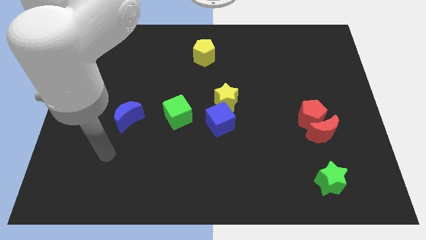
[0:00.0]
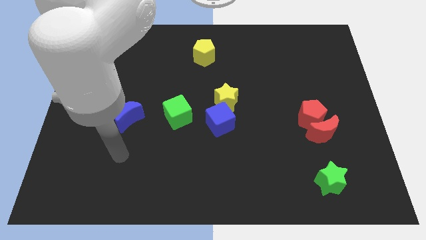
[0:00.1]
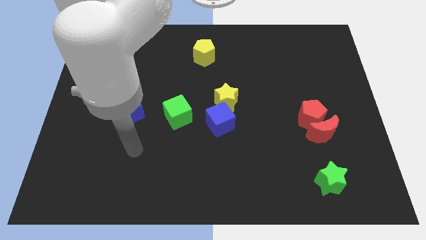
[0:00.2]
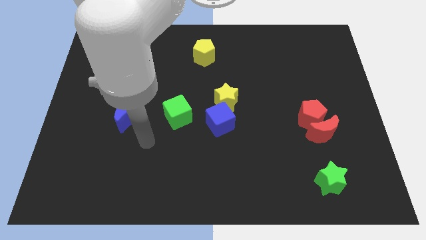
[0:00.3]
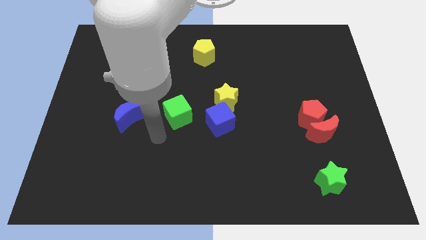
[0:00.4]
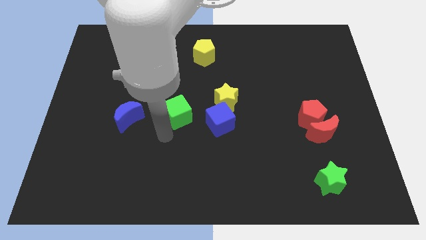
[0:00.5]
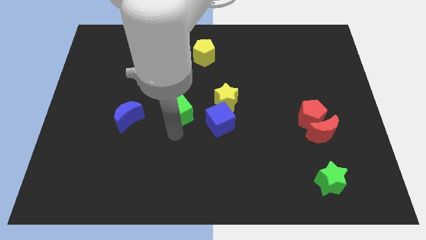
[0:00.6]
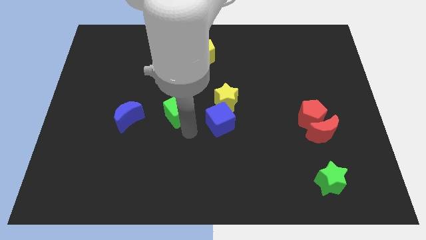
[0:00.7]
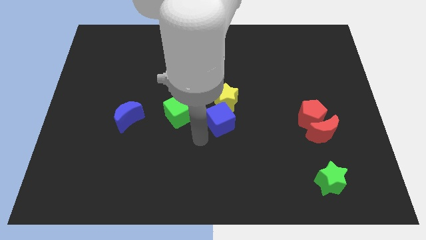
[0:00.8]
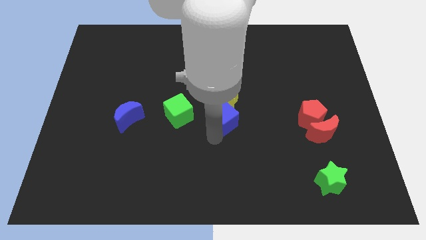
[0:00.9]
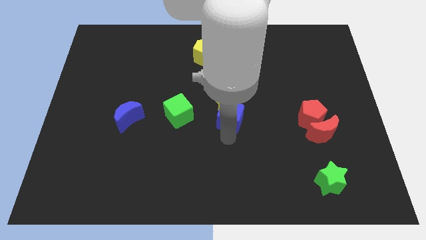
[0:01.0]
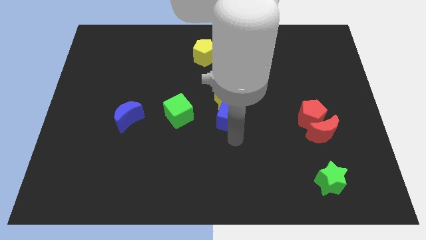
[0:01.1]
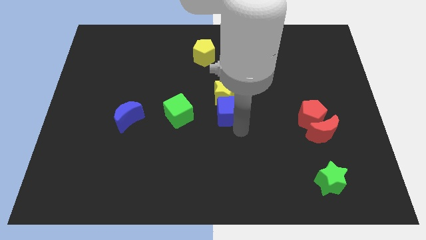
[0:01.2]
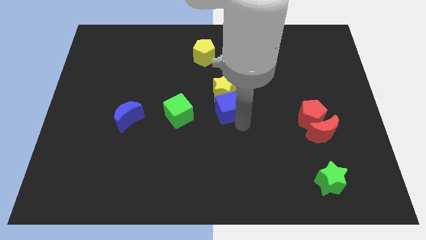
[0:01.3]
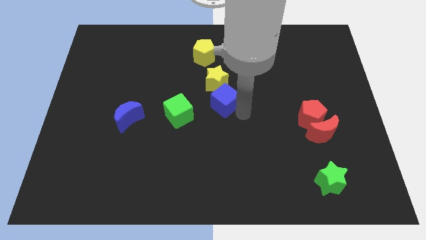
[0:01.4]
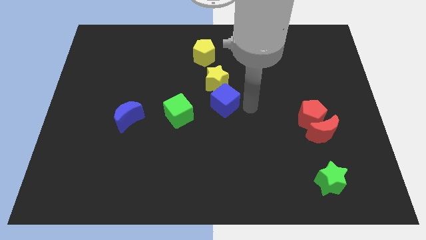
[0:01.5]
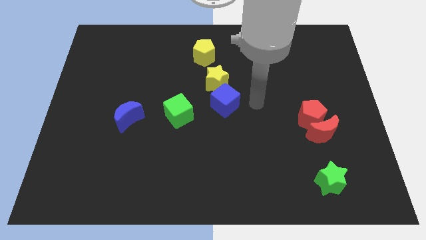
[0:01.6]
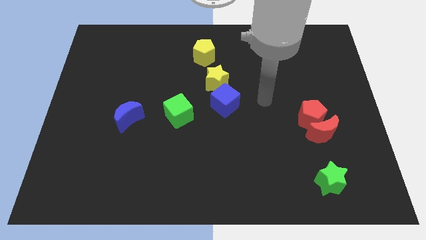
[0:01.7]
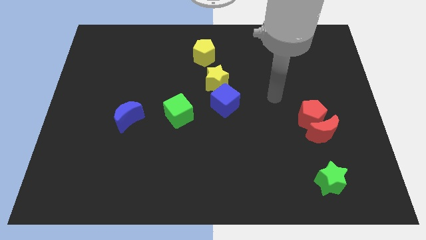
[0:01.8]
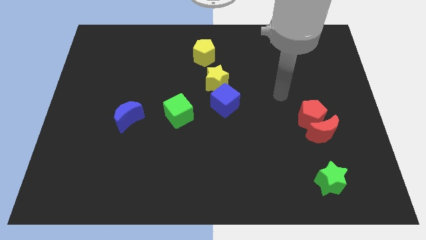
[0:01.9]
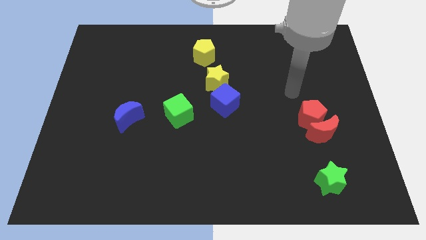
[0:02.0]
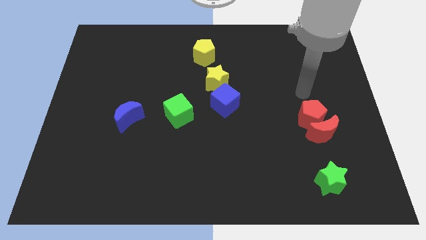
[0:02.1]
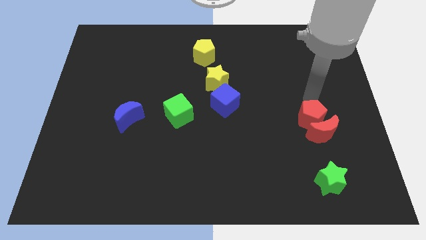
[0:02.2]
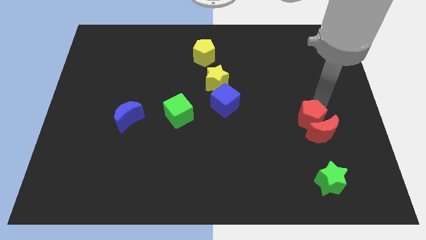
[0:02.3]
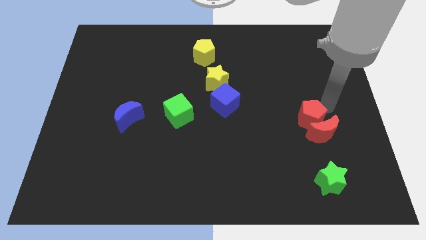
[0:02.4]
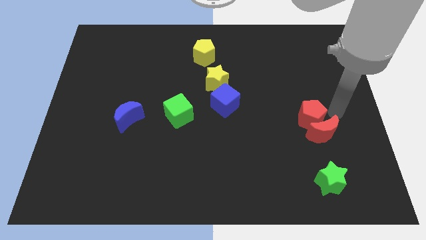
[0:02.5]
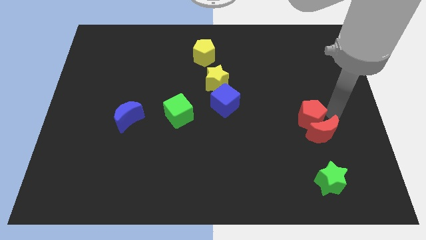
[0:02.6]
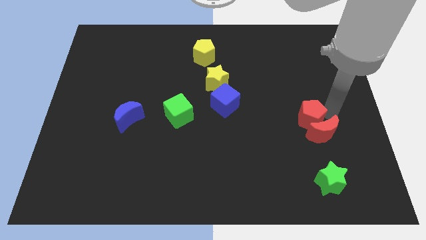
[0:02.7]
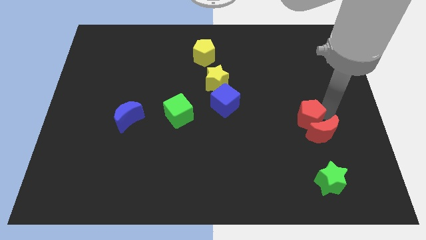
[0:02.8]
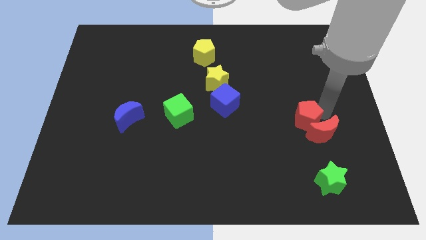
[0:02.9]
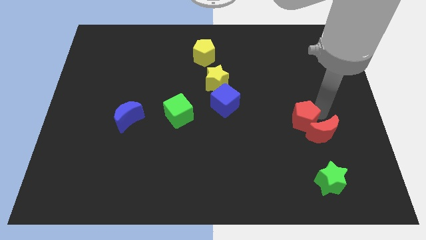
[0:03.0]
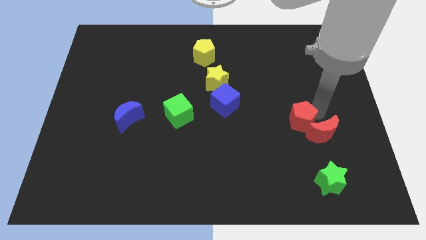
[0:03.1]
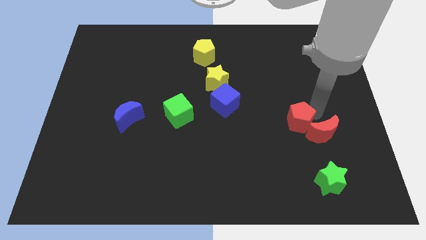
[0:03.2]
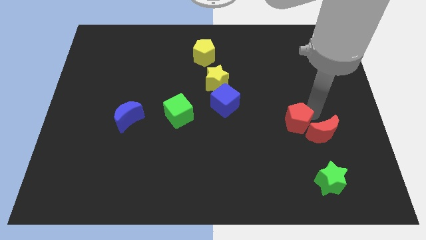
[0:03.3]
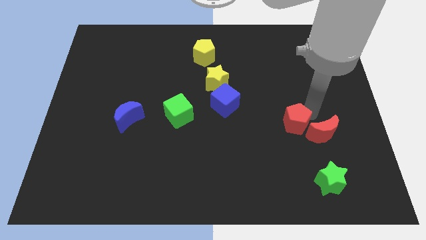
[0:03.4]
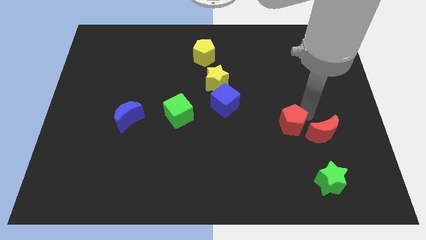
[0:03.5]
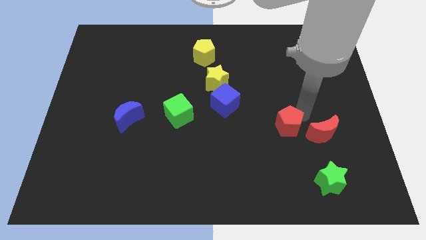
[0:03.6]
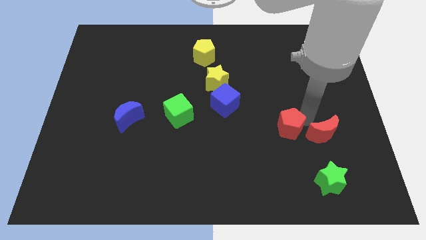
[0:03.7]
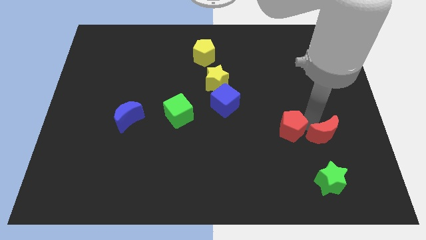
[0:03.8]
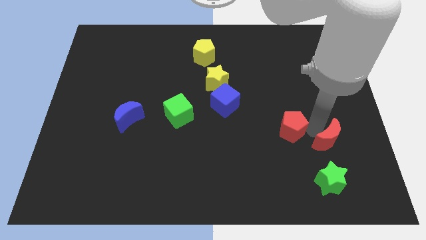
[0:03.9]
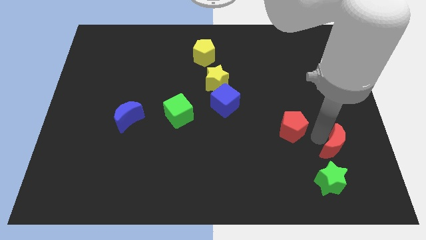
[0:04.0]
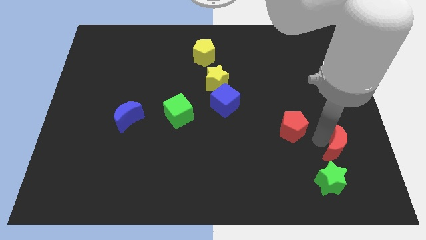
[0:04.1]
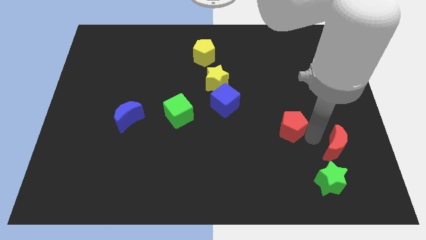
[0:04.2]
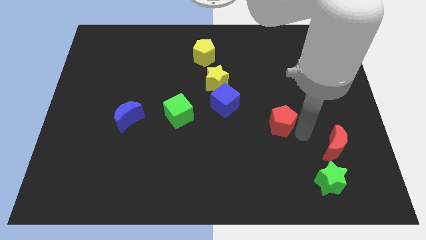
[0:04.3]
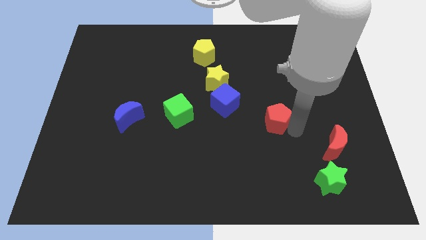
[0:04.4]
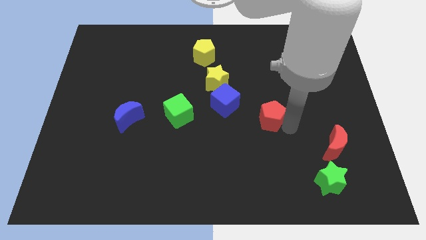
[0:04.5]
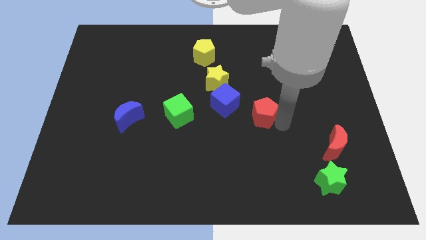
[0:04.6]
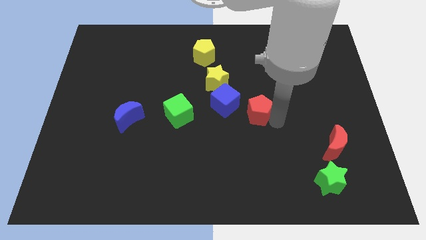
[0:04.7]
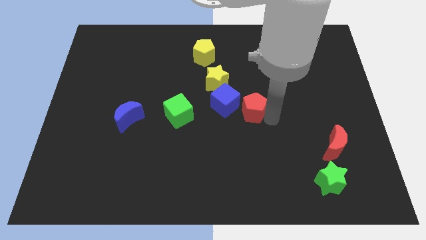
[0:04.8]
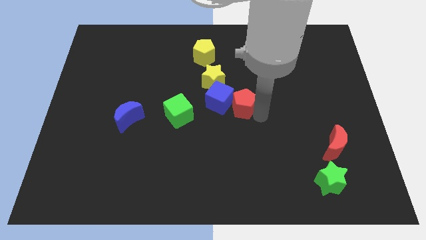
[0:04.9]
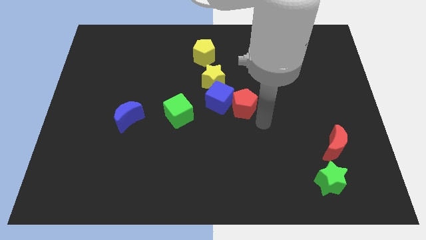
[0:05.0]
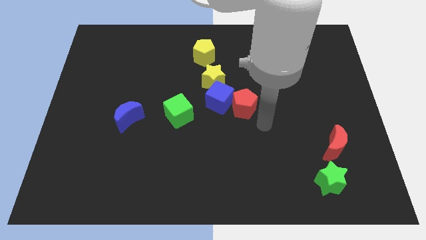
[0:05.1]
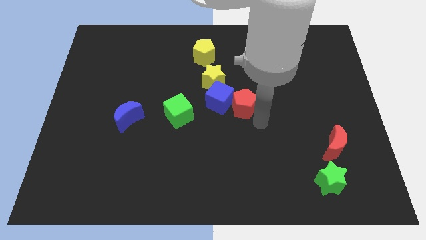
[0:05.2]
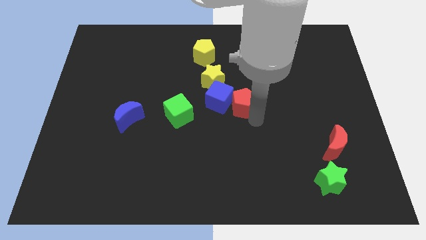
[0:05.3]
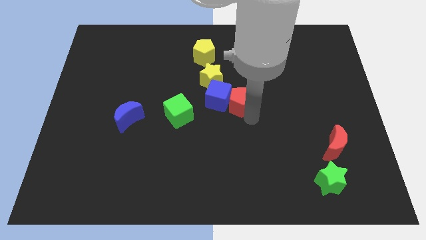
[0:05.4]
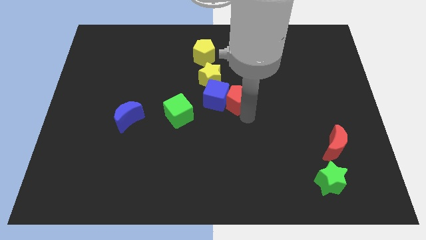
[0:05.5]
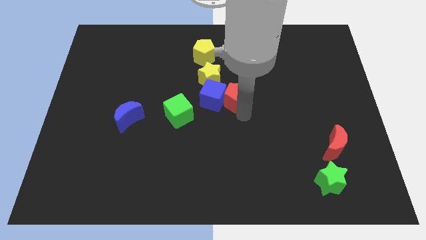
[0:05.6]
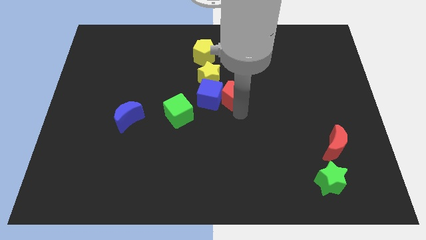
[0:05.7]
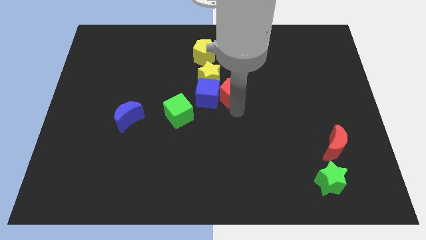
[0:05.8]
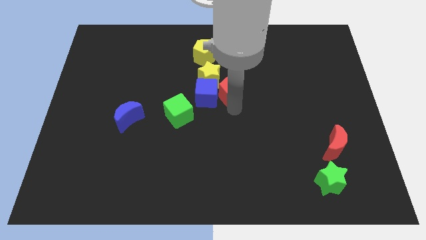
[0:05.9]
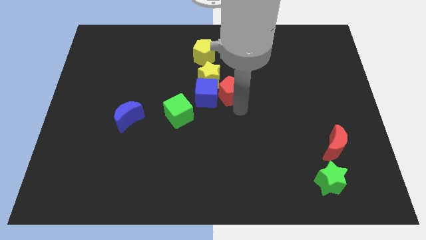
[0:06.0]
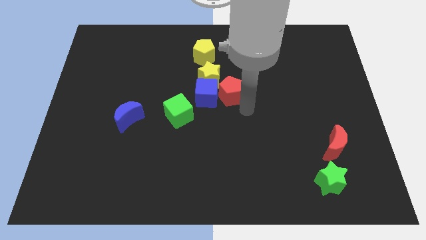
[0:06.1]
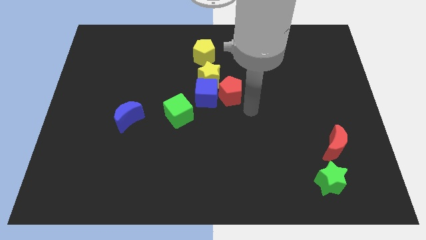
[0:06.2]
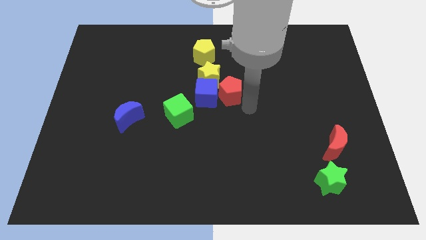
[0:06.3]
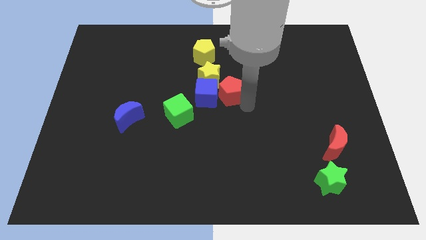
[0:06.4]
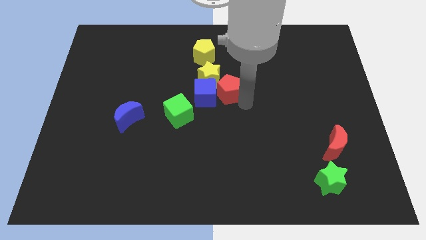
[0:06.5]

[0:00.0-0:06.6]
move the red pentagon close to the yellow star

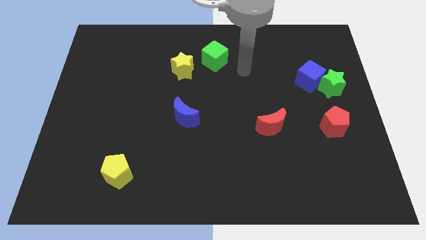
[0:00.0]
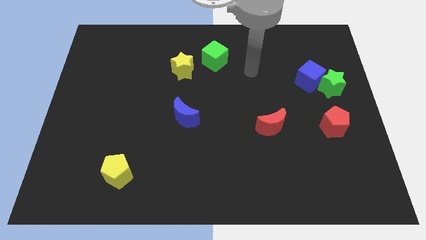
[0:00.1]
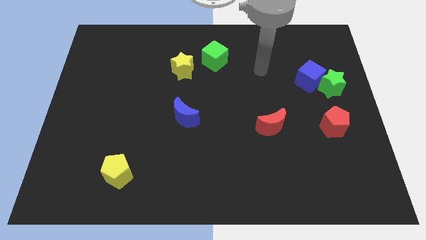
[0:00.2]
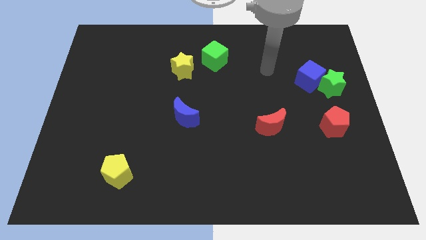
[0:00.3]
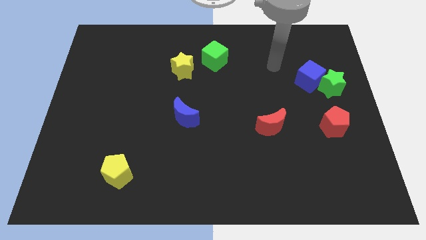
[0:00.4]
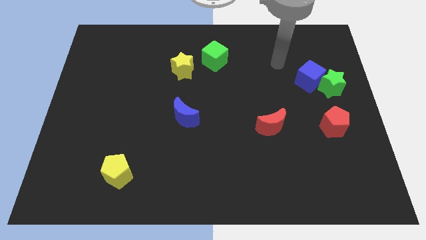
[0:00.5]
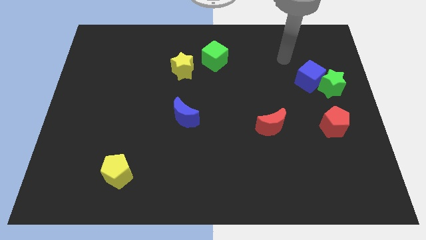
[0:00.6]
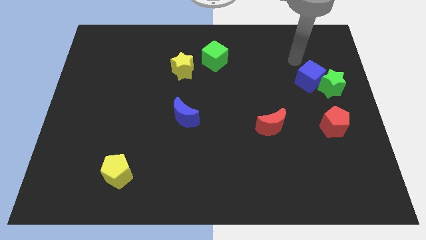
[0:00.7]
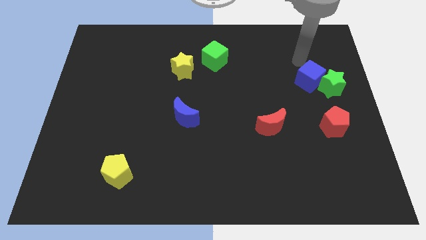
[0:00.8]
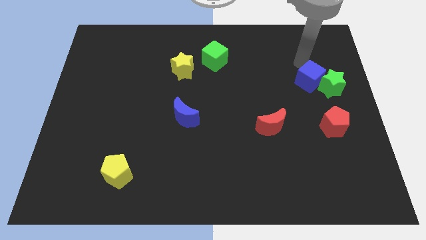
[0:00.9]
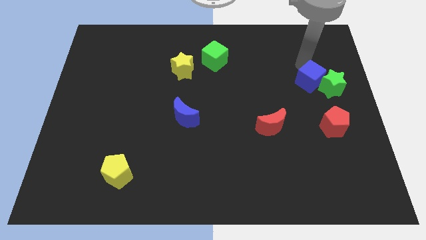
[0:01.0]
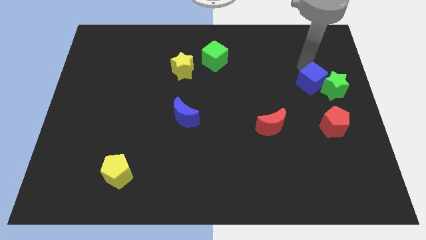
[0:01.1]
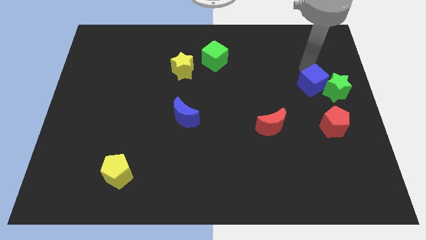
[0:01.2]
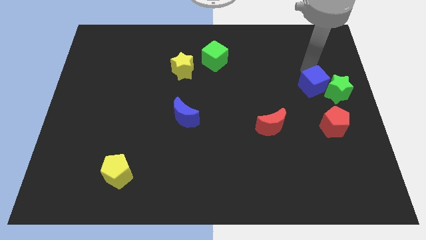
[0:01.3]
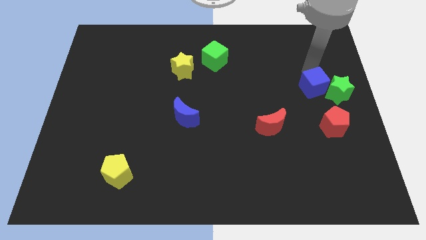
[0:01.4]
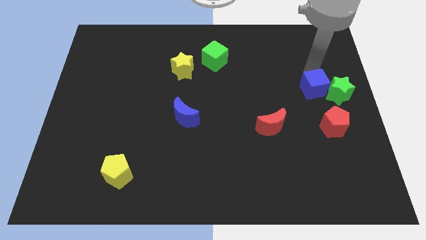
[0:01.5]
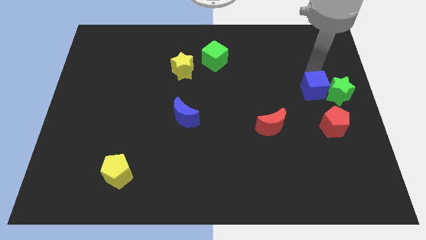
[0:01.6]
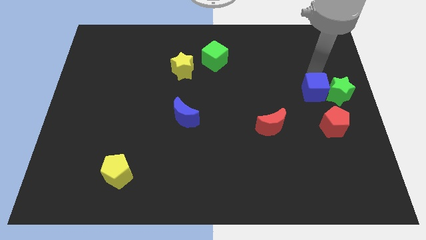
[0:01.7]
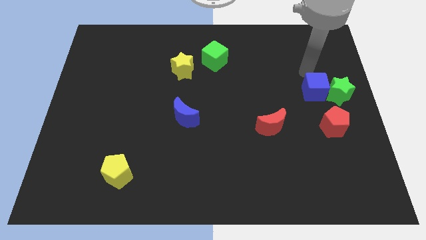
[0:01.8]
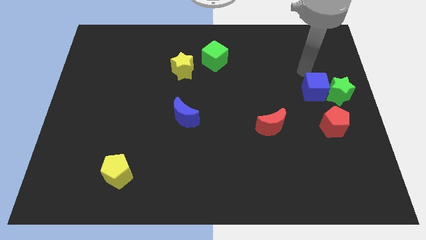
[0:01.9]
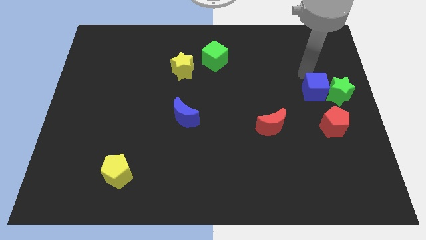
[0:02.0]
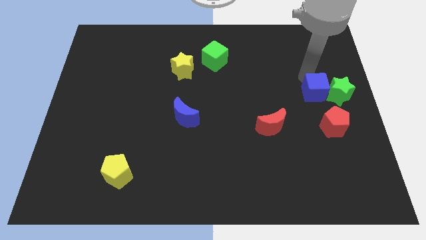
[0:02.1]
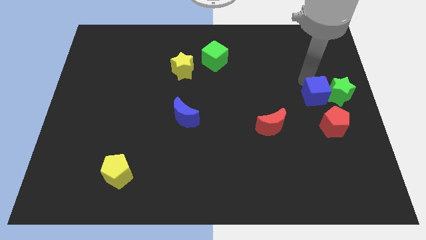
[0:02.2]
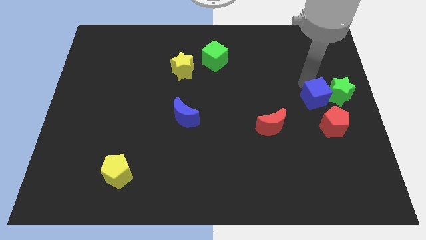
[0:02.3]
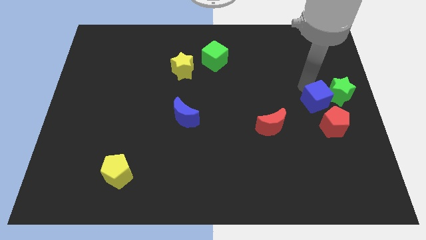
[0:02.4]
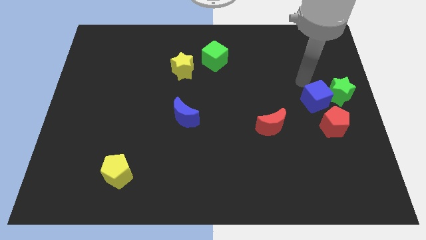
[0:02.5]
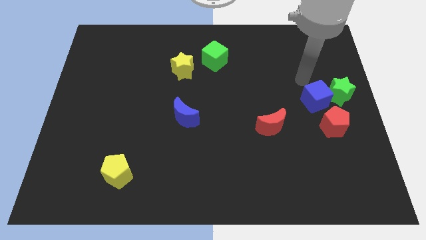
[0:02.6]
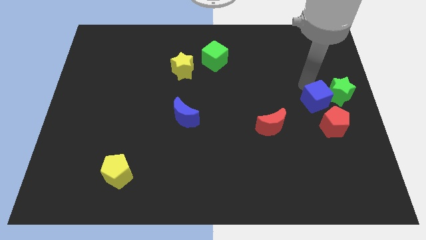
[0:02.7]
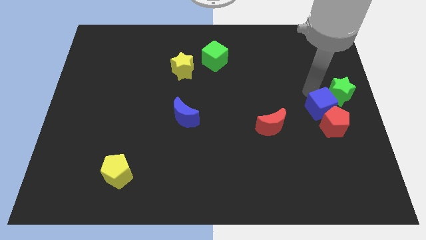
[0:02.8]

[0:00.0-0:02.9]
put the blue cube to the red pentagon
